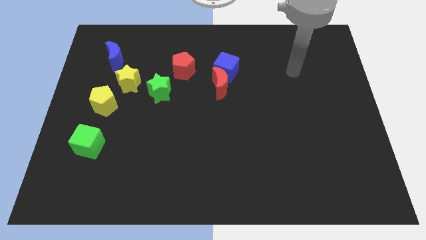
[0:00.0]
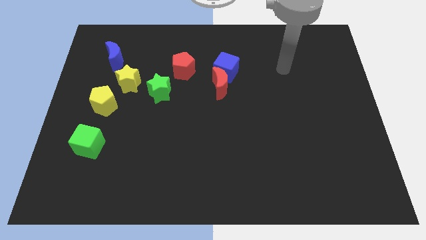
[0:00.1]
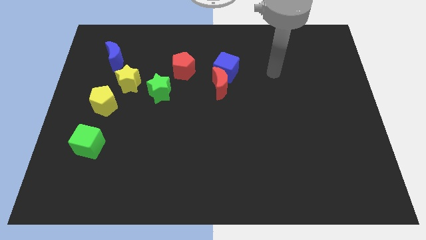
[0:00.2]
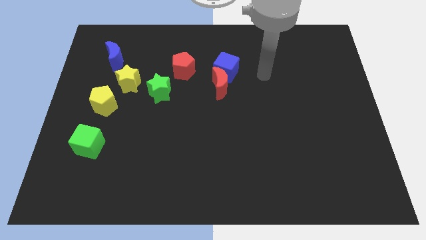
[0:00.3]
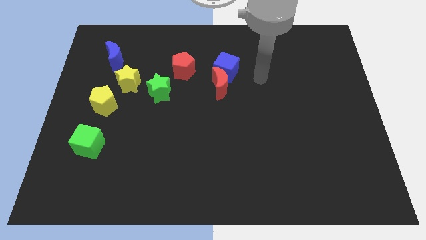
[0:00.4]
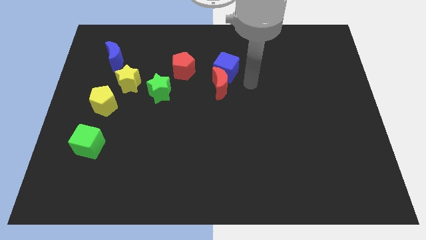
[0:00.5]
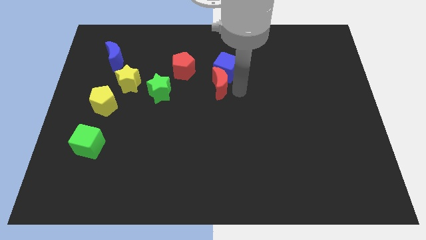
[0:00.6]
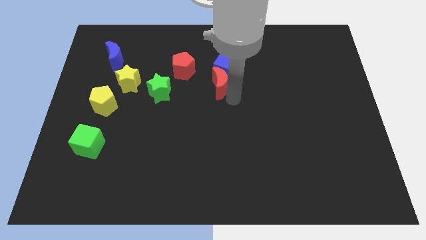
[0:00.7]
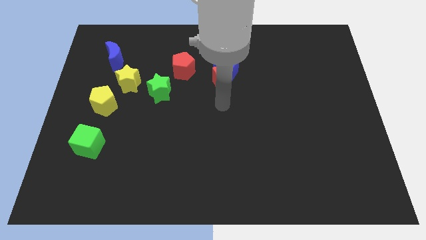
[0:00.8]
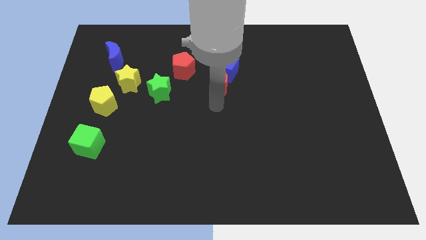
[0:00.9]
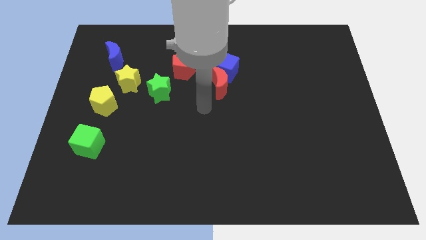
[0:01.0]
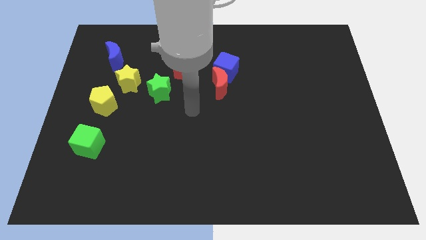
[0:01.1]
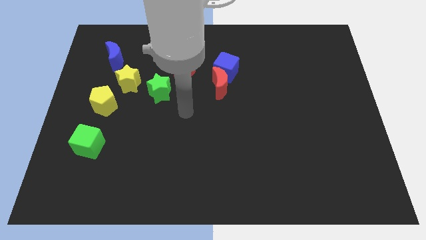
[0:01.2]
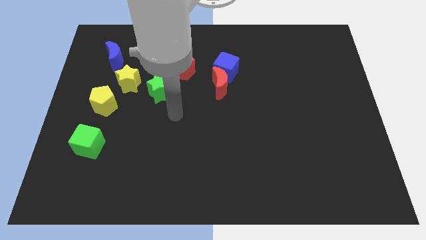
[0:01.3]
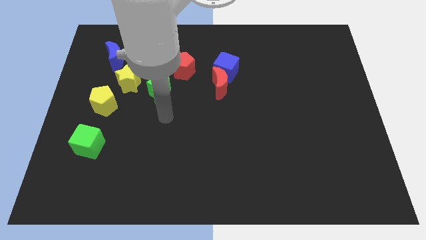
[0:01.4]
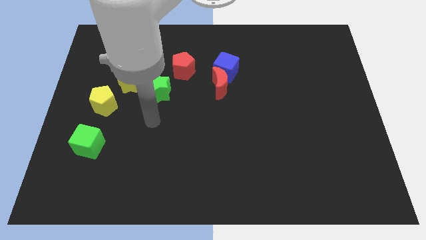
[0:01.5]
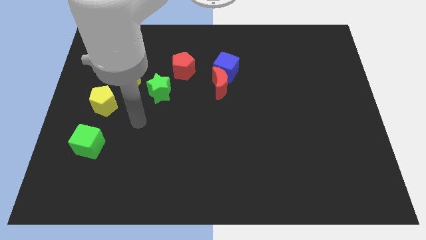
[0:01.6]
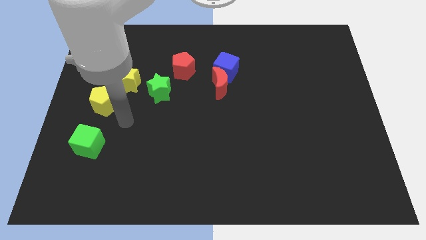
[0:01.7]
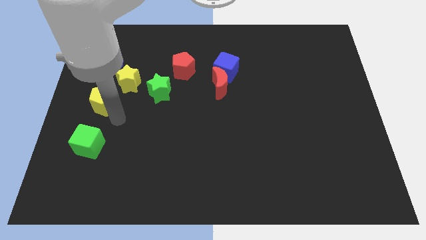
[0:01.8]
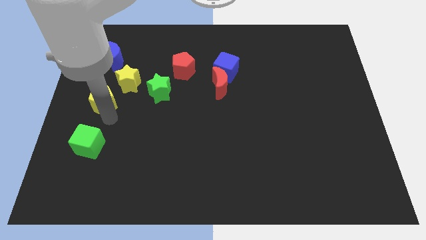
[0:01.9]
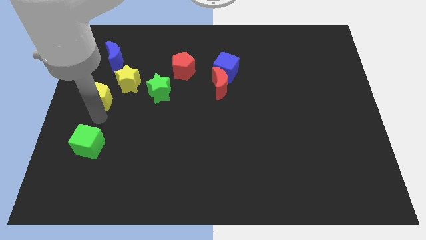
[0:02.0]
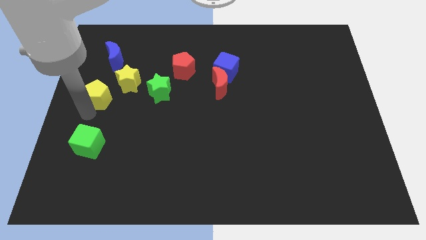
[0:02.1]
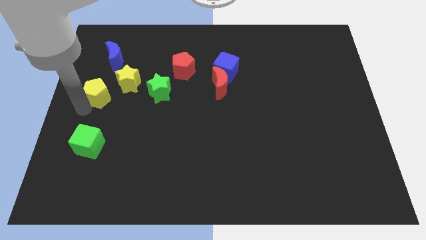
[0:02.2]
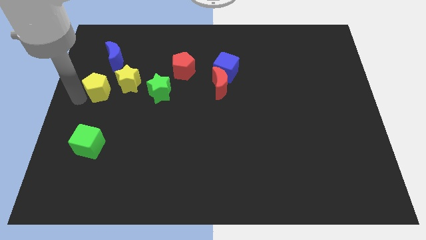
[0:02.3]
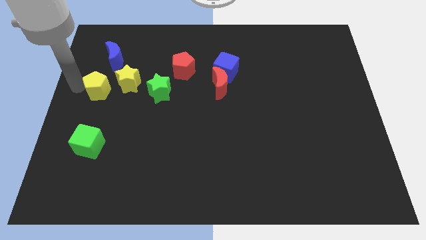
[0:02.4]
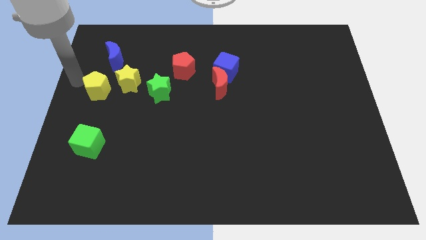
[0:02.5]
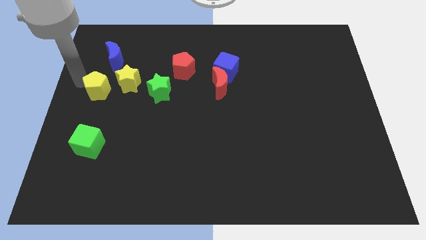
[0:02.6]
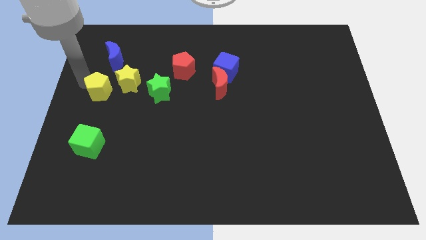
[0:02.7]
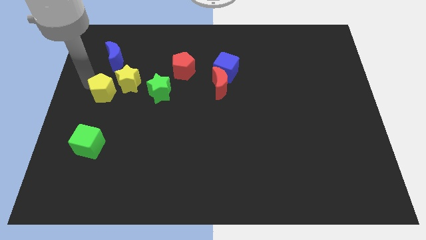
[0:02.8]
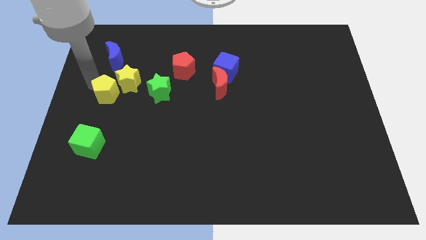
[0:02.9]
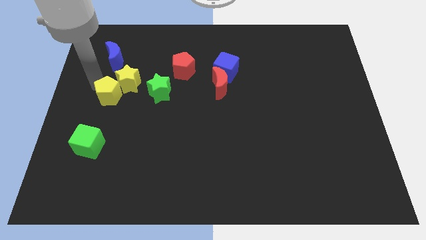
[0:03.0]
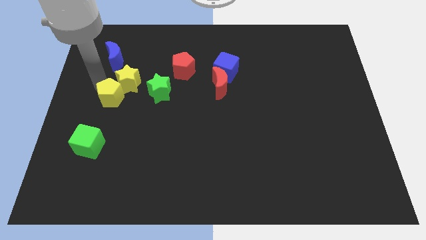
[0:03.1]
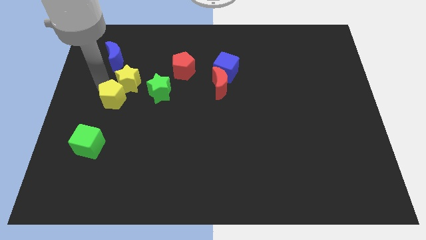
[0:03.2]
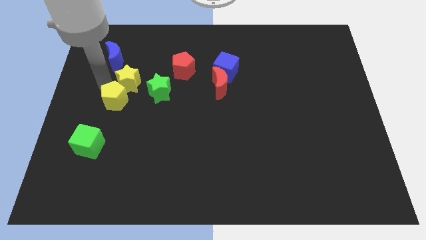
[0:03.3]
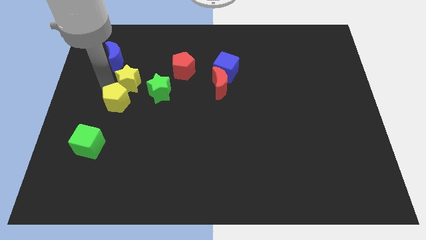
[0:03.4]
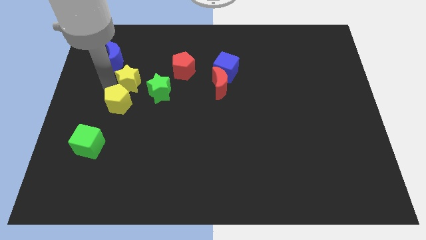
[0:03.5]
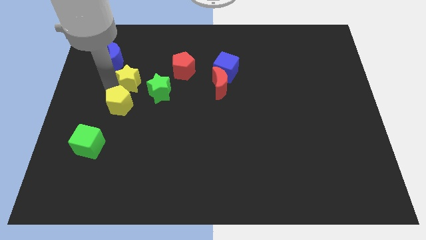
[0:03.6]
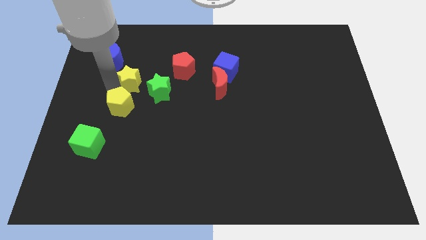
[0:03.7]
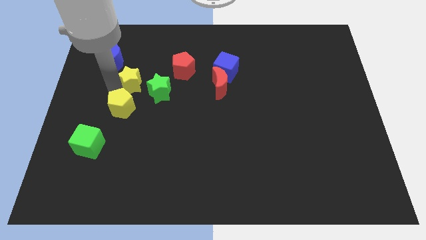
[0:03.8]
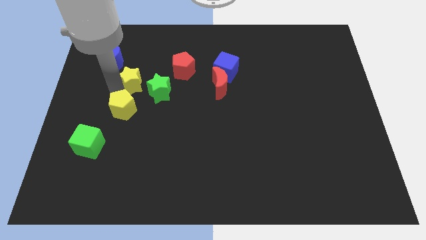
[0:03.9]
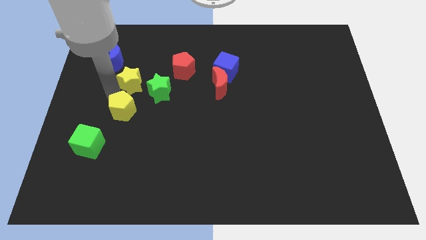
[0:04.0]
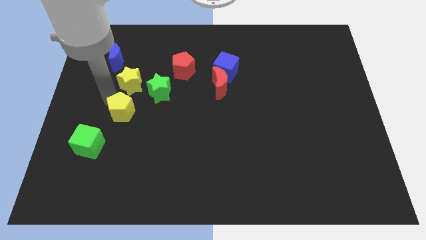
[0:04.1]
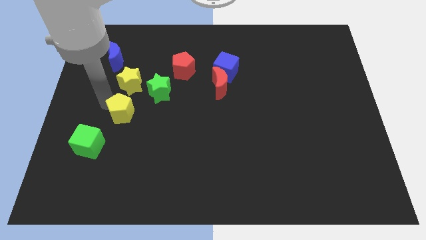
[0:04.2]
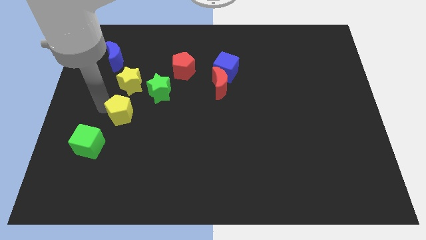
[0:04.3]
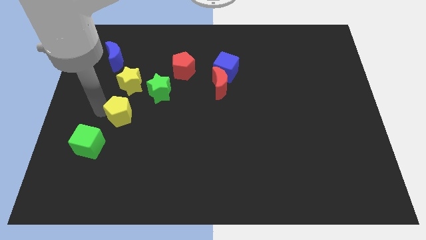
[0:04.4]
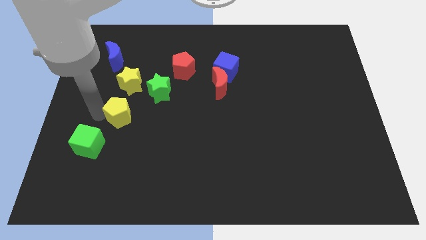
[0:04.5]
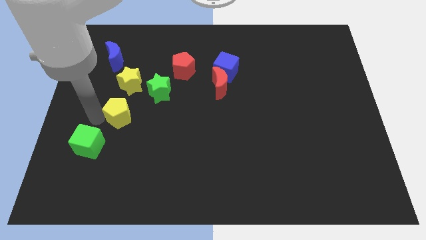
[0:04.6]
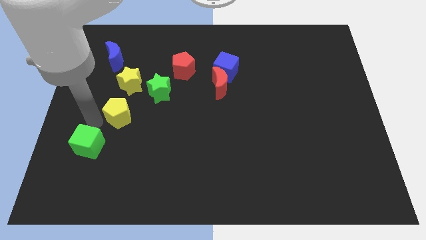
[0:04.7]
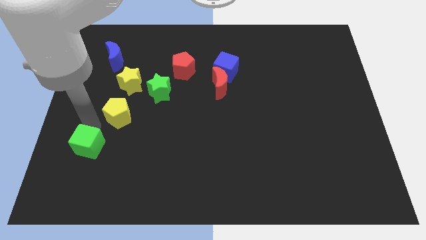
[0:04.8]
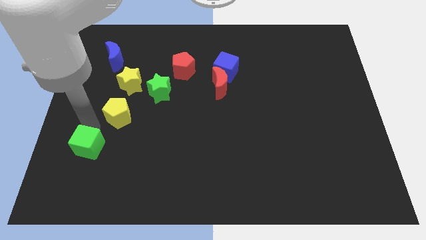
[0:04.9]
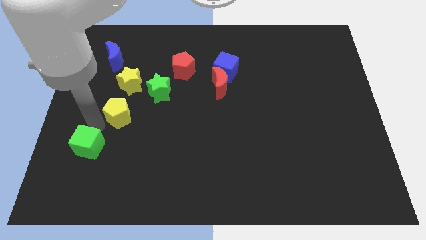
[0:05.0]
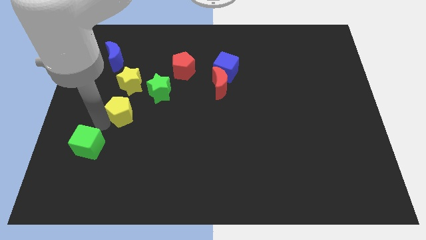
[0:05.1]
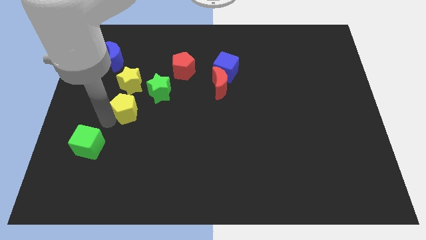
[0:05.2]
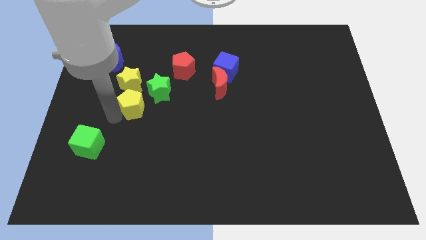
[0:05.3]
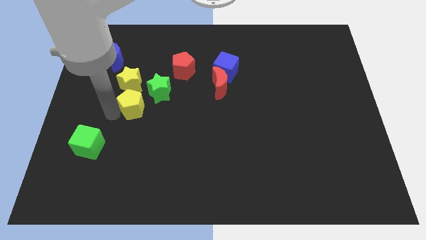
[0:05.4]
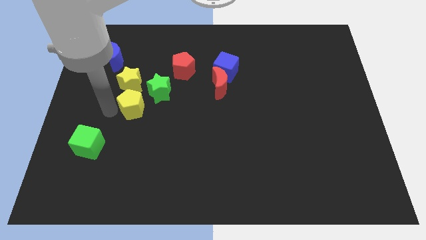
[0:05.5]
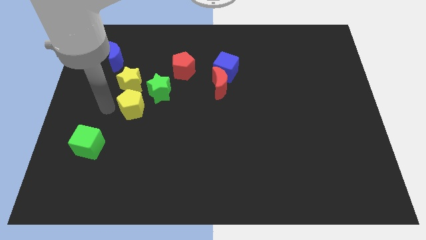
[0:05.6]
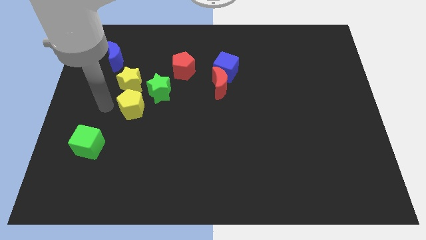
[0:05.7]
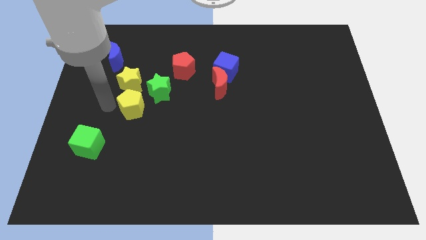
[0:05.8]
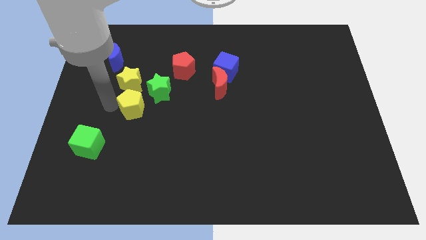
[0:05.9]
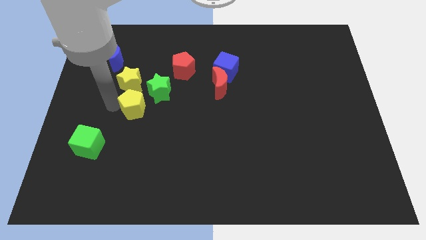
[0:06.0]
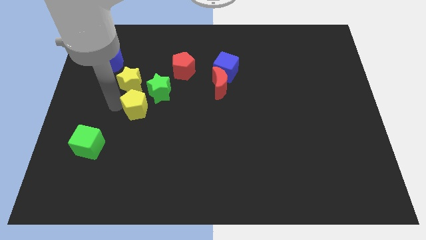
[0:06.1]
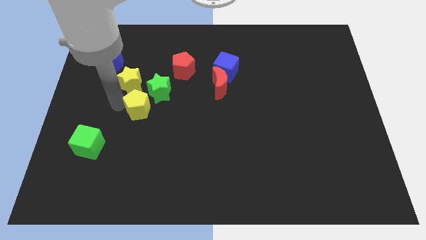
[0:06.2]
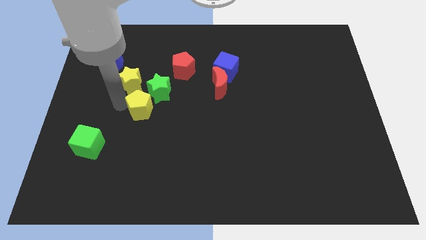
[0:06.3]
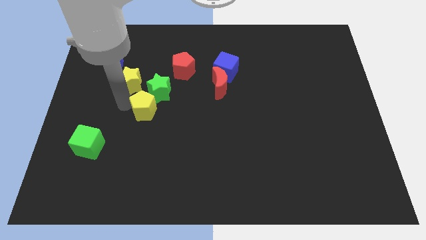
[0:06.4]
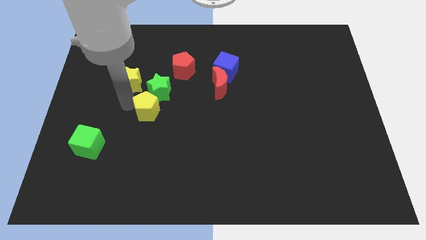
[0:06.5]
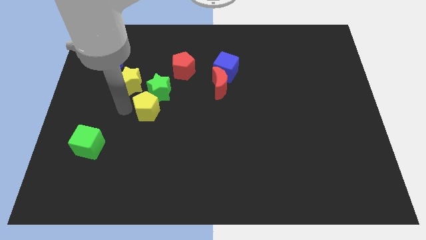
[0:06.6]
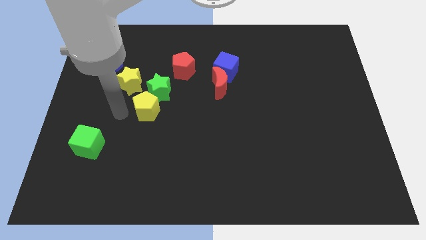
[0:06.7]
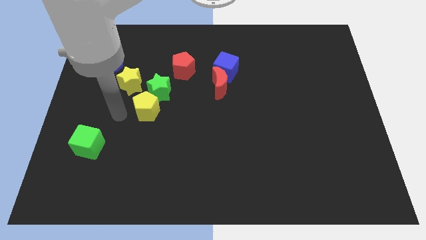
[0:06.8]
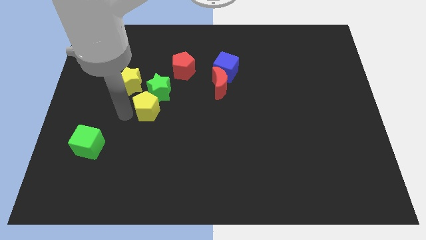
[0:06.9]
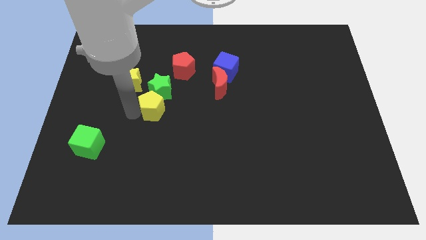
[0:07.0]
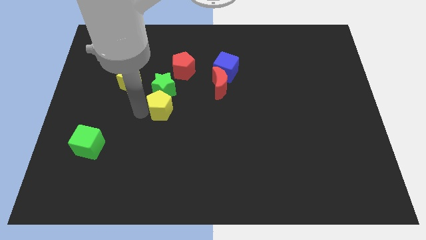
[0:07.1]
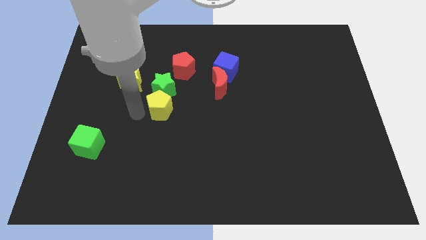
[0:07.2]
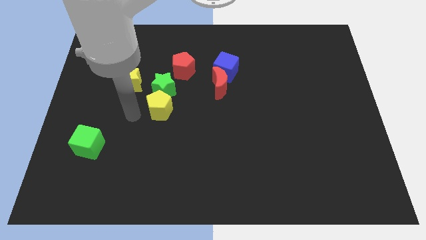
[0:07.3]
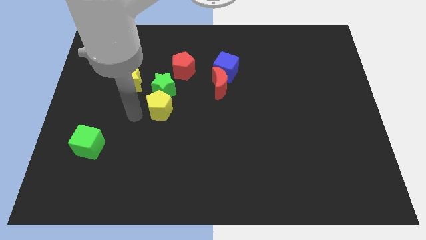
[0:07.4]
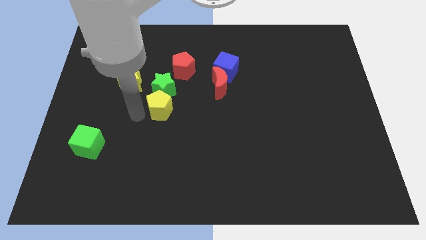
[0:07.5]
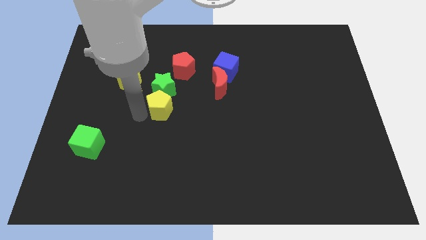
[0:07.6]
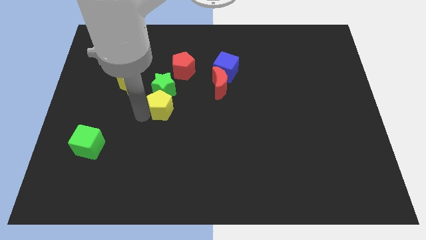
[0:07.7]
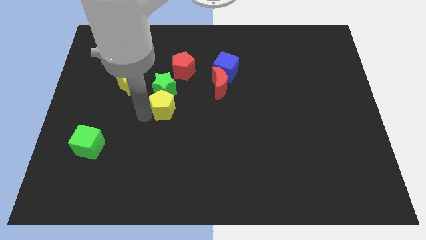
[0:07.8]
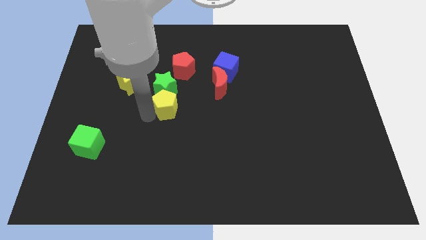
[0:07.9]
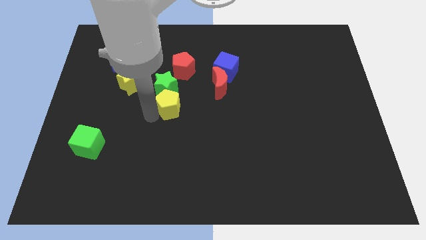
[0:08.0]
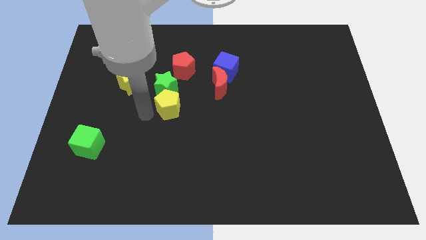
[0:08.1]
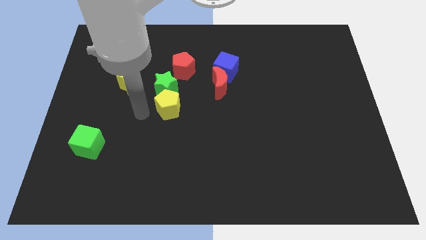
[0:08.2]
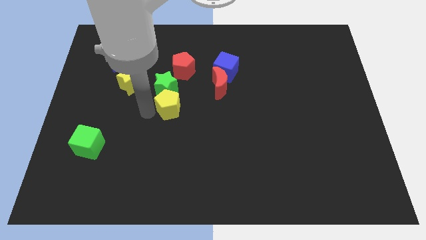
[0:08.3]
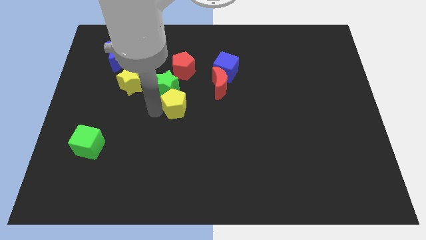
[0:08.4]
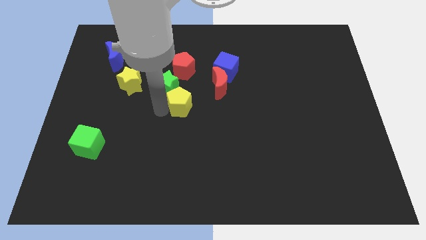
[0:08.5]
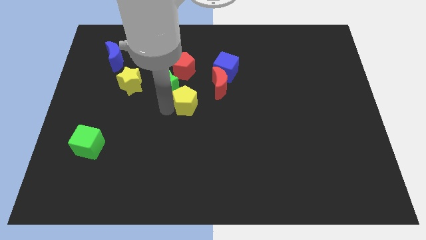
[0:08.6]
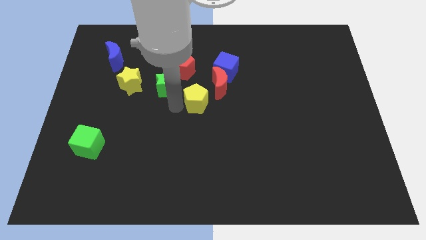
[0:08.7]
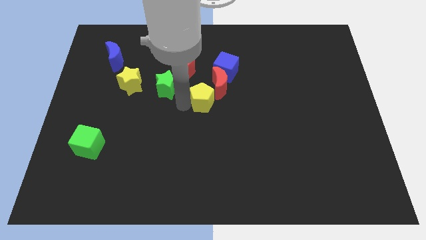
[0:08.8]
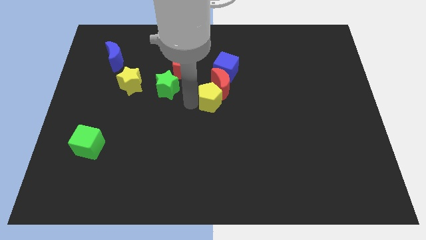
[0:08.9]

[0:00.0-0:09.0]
move the yellow pentagon to the bottom side of the blue cube
